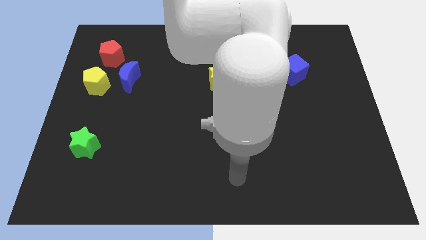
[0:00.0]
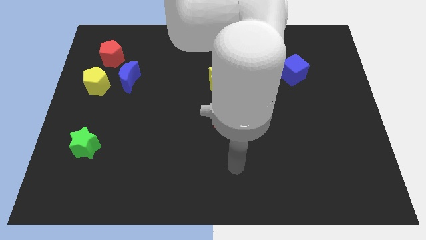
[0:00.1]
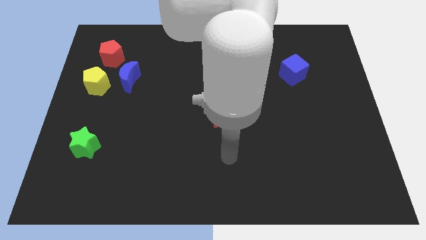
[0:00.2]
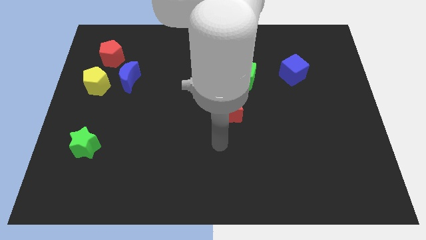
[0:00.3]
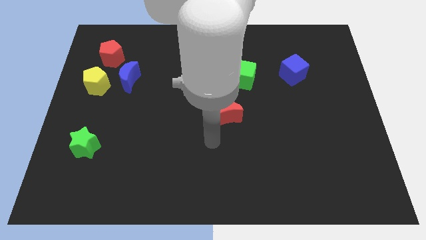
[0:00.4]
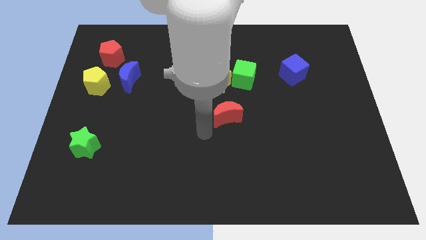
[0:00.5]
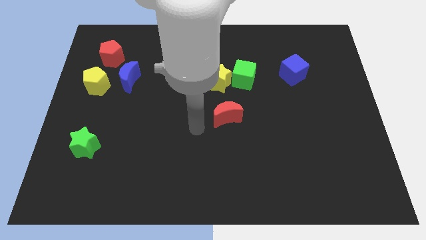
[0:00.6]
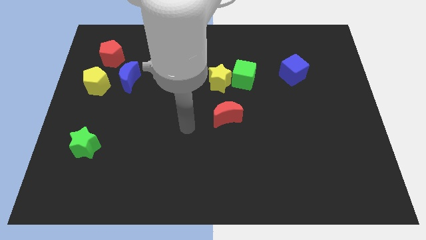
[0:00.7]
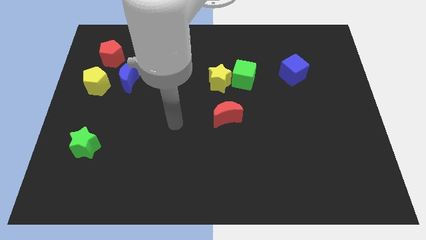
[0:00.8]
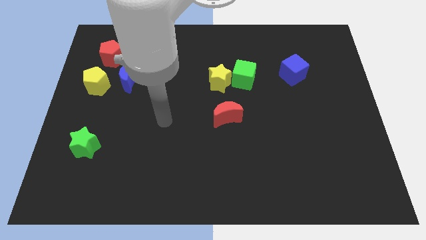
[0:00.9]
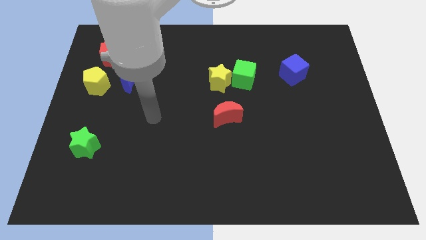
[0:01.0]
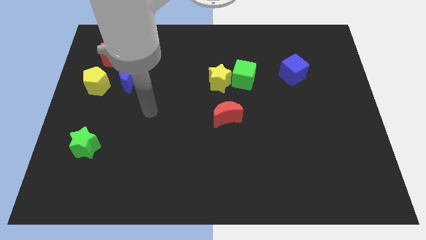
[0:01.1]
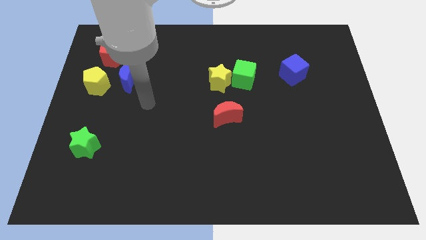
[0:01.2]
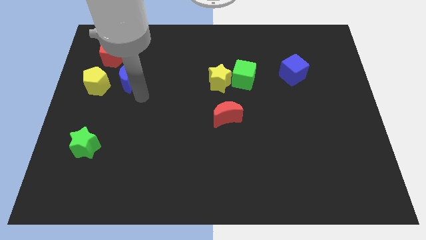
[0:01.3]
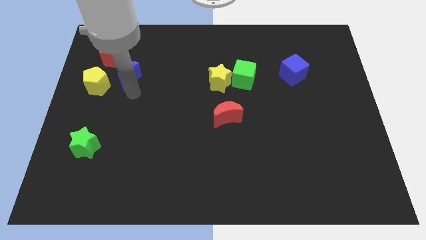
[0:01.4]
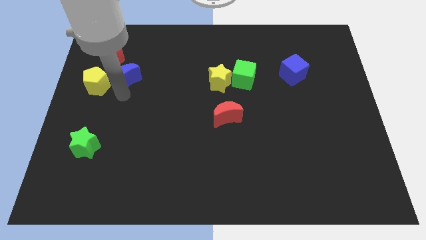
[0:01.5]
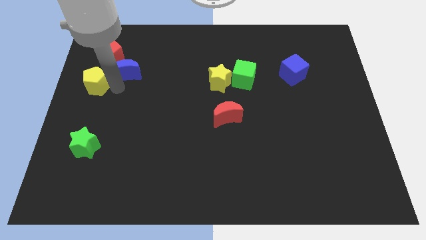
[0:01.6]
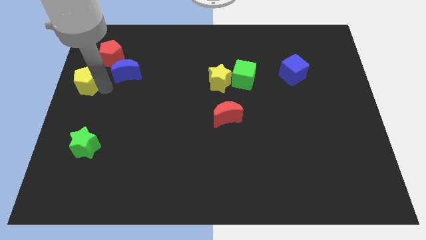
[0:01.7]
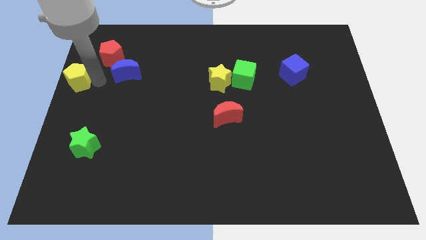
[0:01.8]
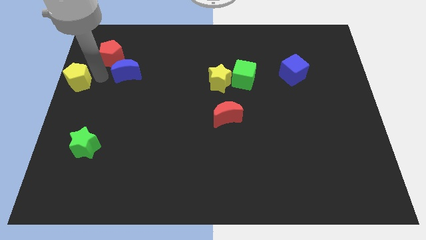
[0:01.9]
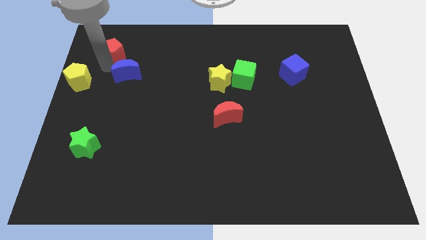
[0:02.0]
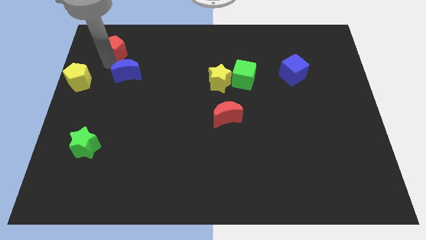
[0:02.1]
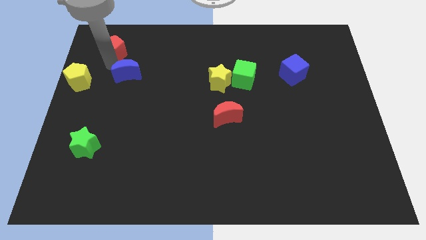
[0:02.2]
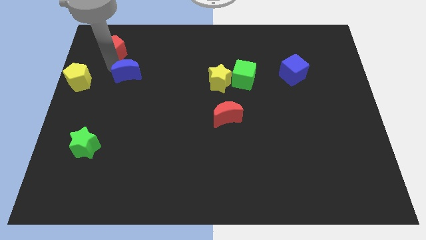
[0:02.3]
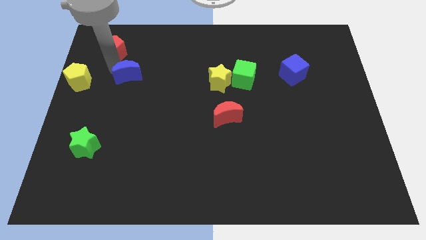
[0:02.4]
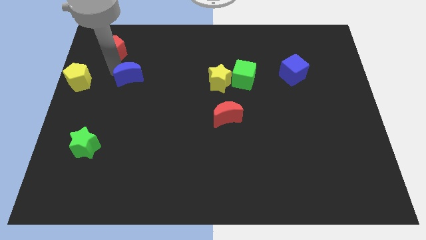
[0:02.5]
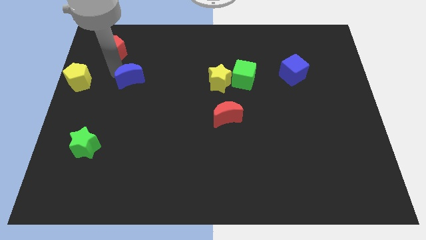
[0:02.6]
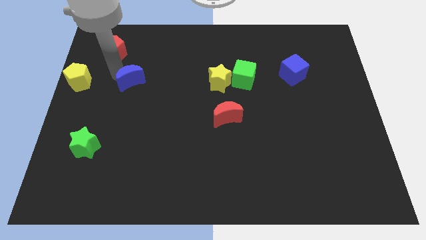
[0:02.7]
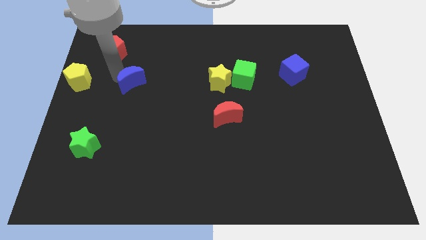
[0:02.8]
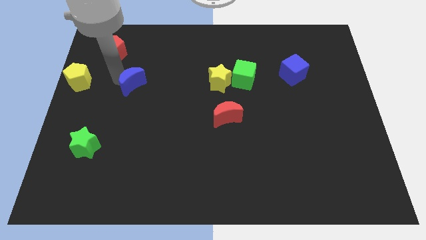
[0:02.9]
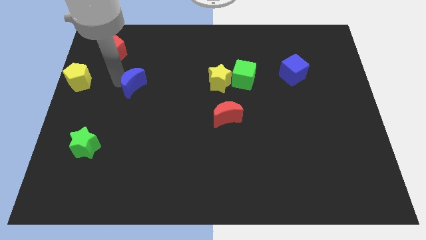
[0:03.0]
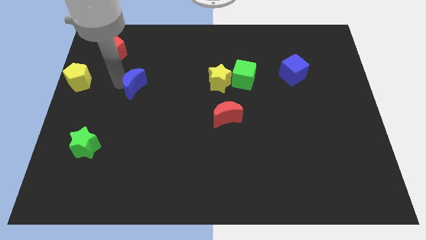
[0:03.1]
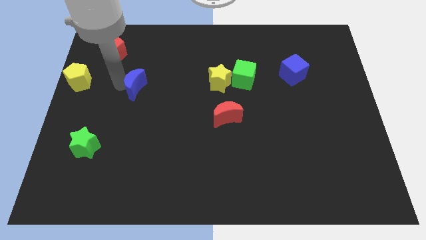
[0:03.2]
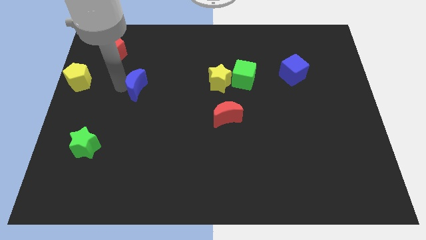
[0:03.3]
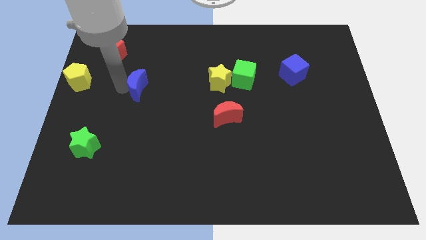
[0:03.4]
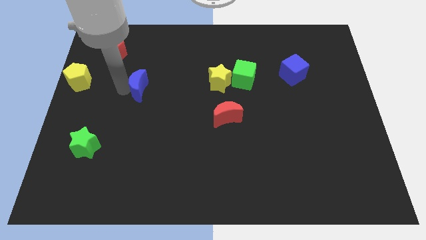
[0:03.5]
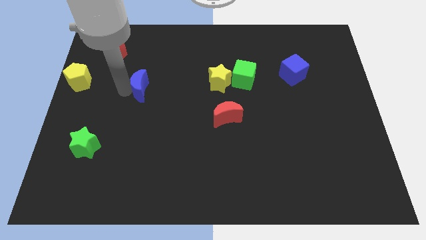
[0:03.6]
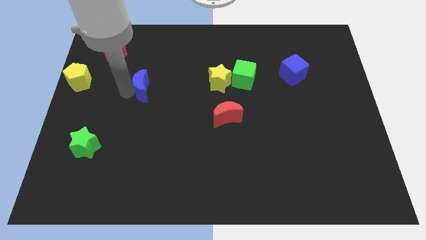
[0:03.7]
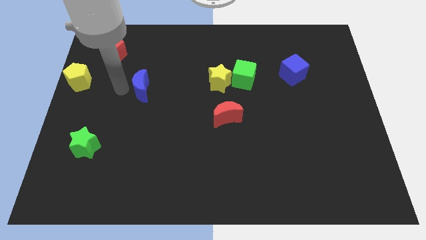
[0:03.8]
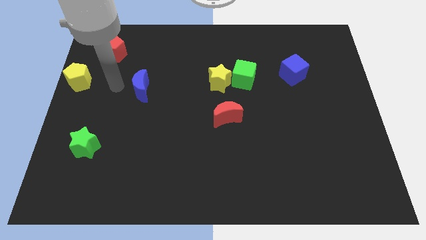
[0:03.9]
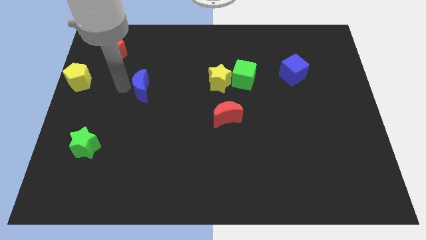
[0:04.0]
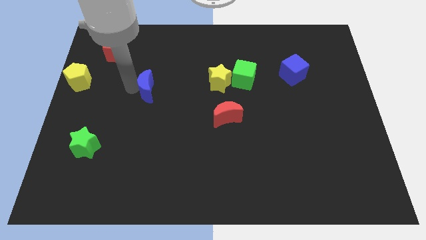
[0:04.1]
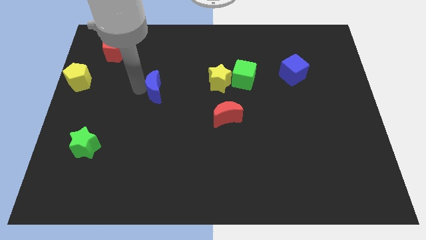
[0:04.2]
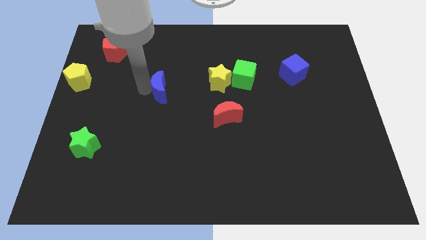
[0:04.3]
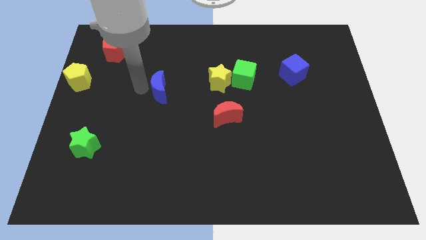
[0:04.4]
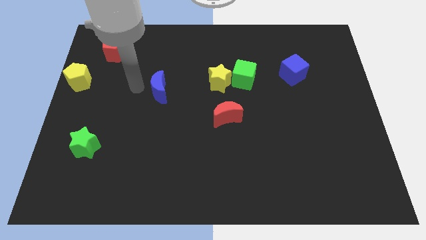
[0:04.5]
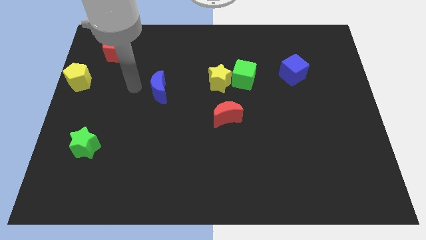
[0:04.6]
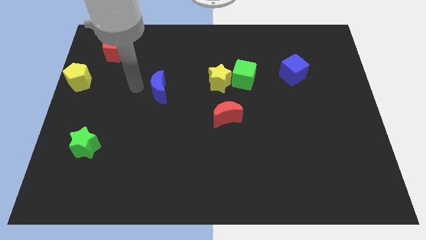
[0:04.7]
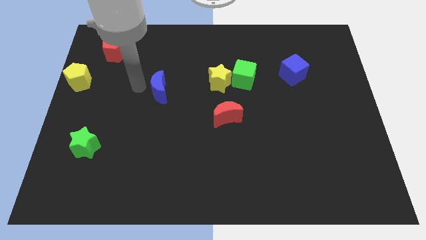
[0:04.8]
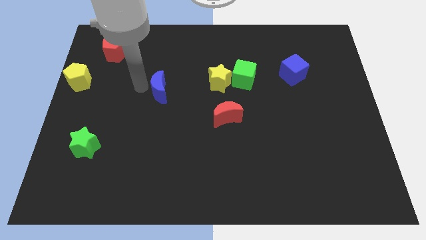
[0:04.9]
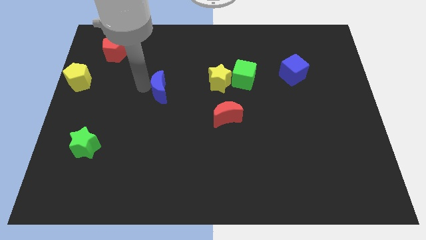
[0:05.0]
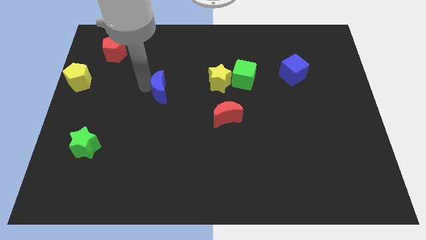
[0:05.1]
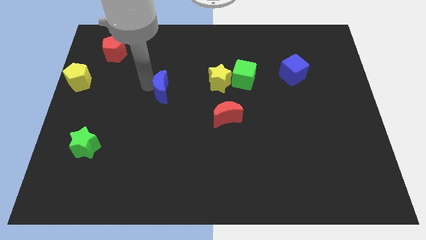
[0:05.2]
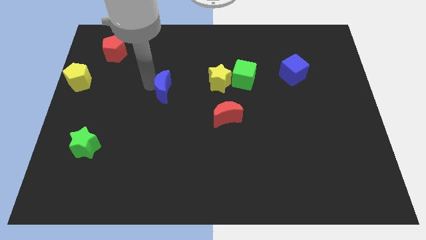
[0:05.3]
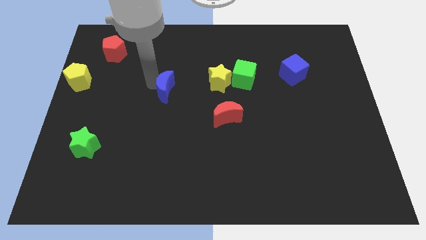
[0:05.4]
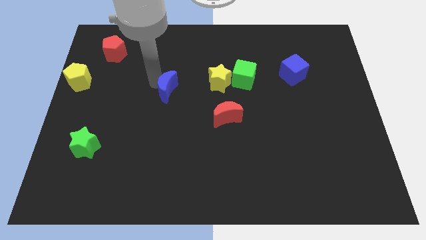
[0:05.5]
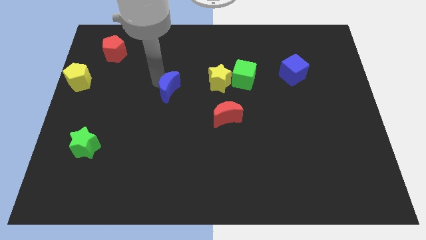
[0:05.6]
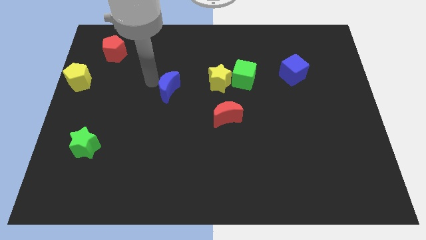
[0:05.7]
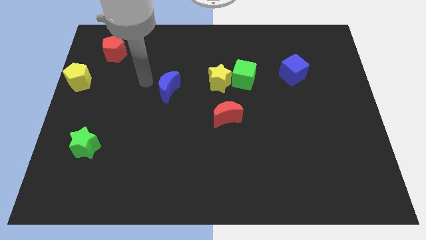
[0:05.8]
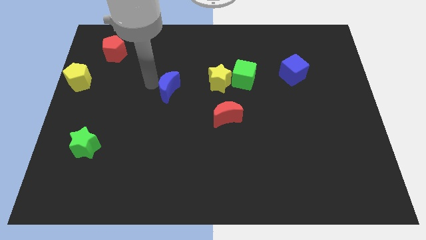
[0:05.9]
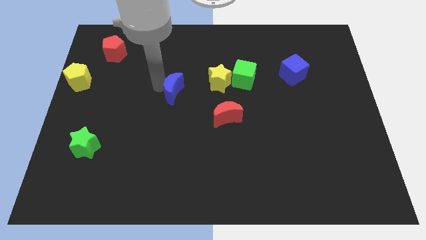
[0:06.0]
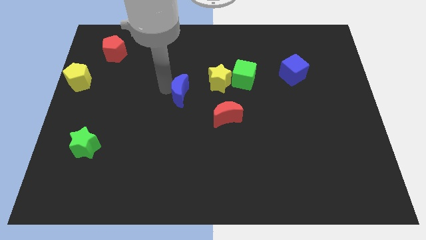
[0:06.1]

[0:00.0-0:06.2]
push the blue moon diagonally down and to the left of the yellow star

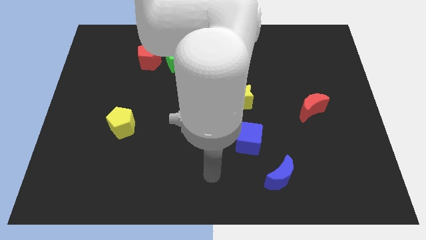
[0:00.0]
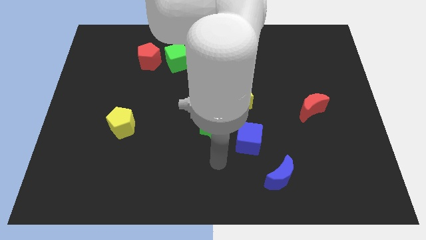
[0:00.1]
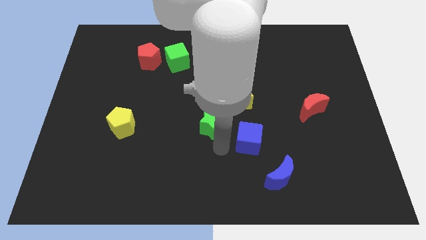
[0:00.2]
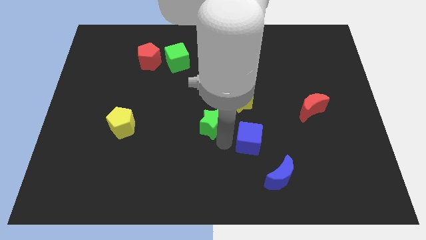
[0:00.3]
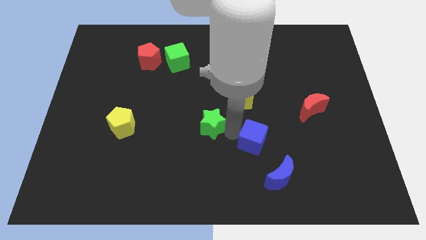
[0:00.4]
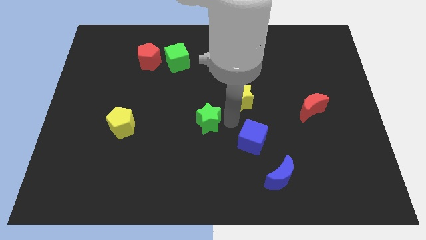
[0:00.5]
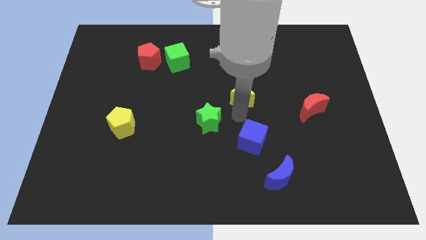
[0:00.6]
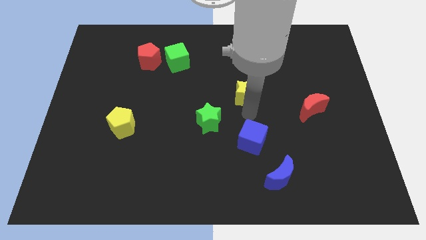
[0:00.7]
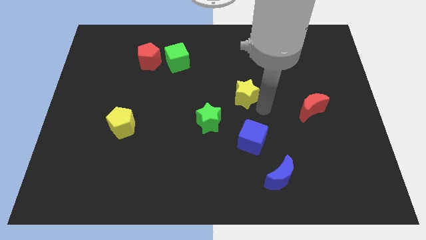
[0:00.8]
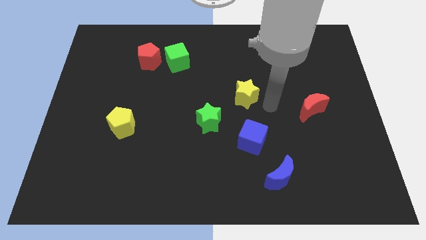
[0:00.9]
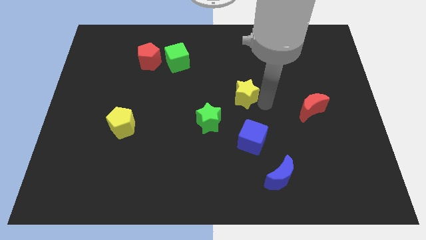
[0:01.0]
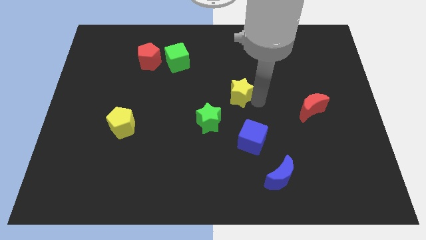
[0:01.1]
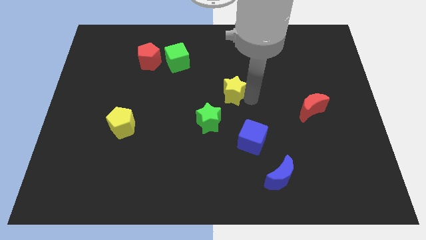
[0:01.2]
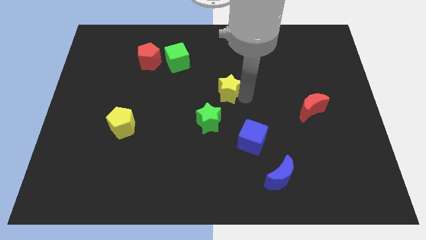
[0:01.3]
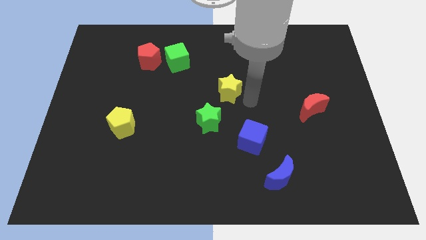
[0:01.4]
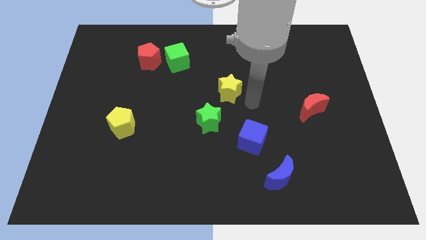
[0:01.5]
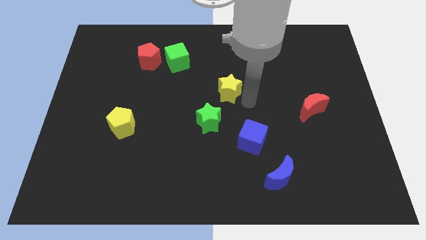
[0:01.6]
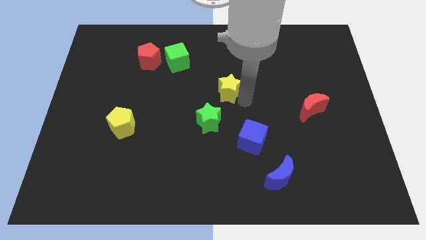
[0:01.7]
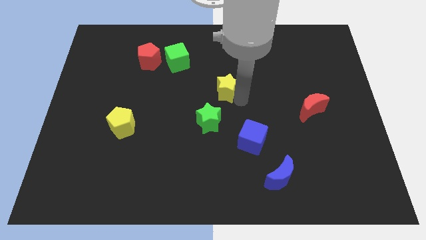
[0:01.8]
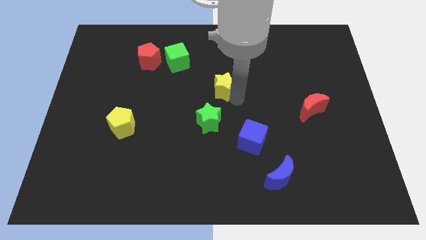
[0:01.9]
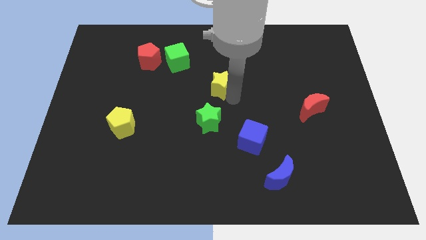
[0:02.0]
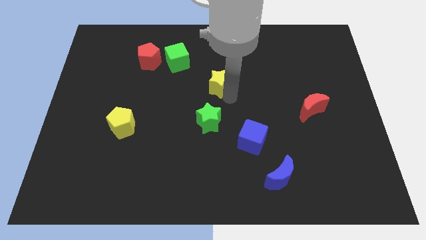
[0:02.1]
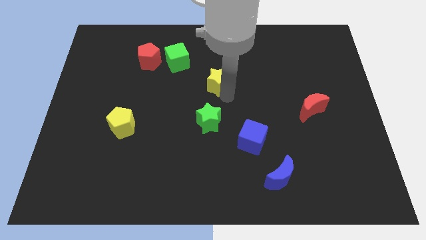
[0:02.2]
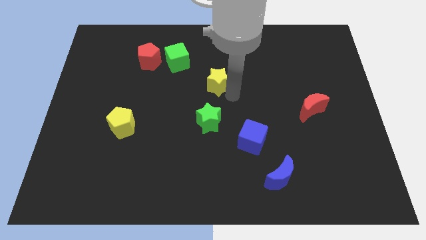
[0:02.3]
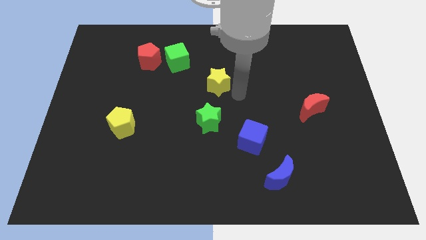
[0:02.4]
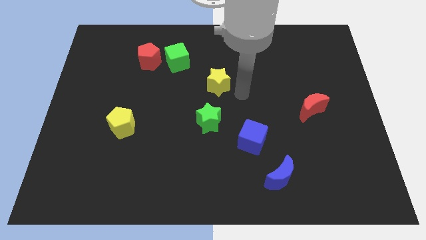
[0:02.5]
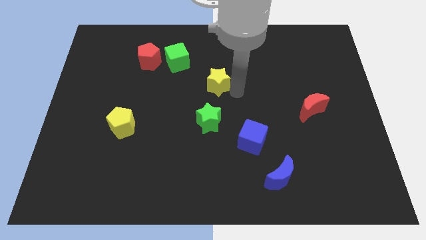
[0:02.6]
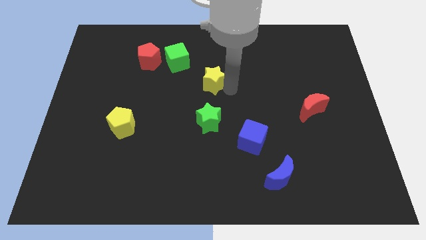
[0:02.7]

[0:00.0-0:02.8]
put the yellow star to the bottom right of the green cube
